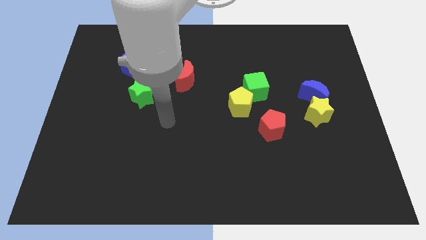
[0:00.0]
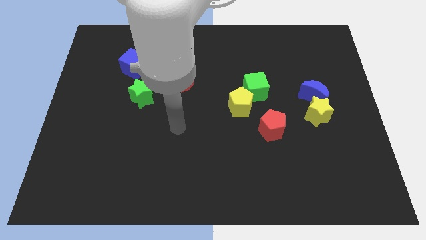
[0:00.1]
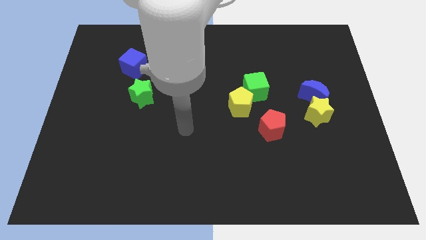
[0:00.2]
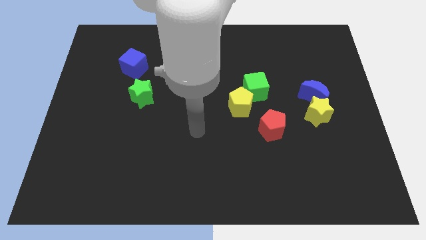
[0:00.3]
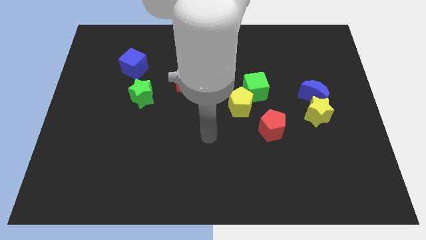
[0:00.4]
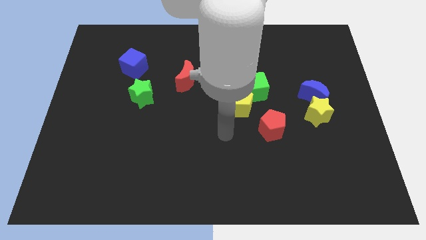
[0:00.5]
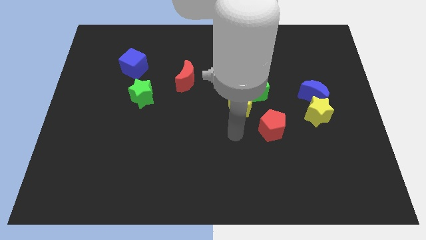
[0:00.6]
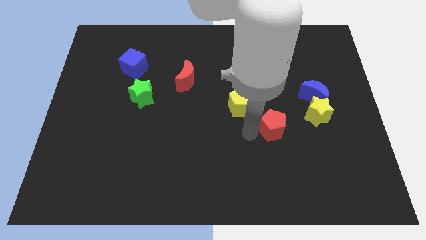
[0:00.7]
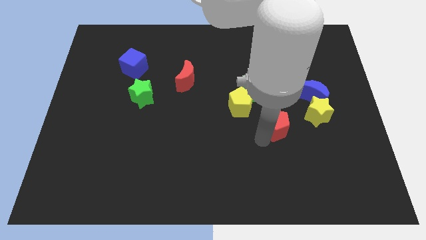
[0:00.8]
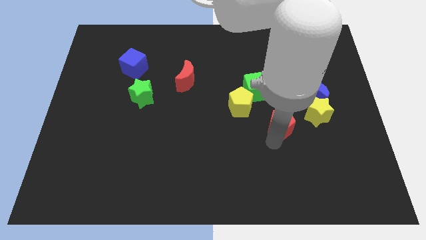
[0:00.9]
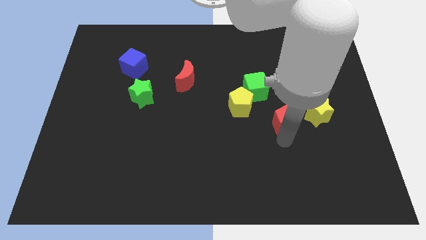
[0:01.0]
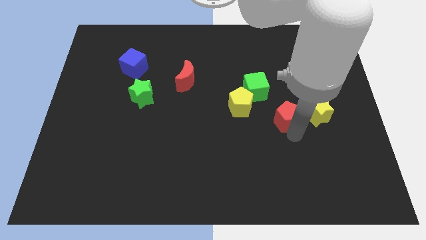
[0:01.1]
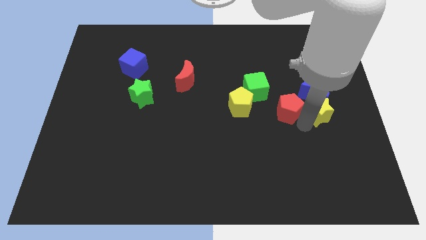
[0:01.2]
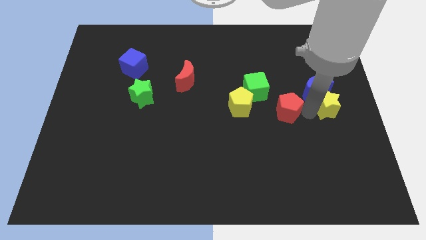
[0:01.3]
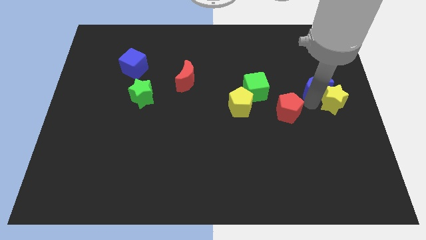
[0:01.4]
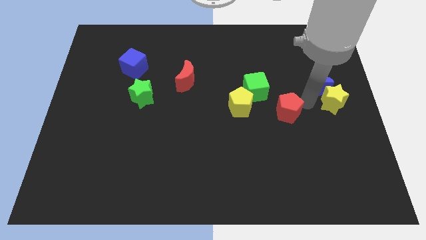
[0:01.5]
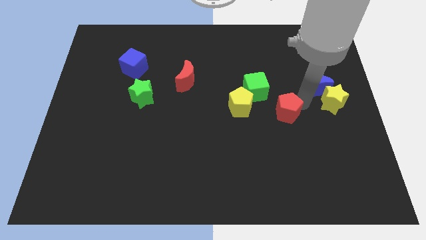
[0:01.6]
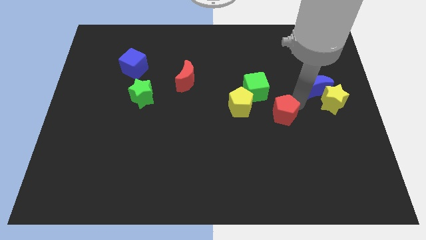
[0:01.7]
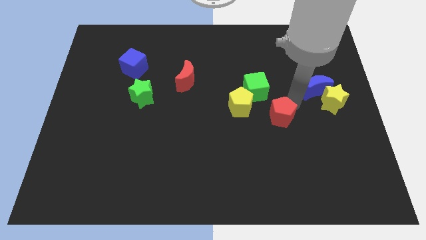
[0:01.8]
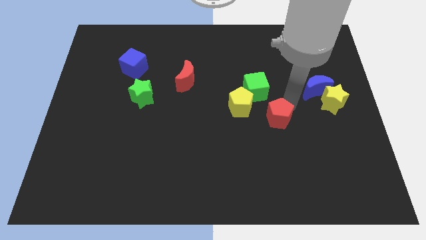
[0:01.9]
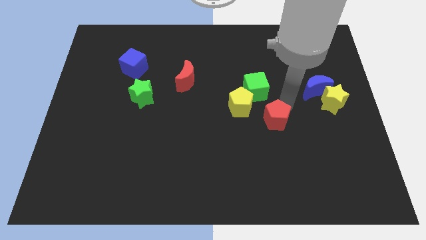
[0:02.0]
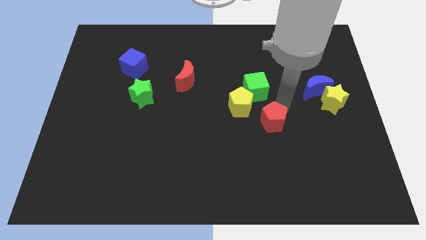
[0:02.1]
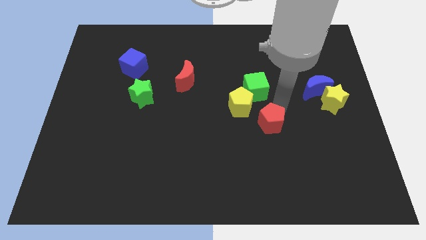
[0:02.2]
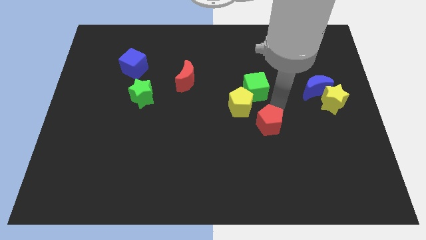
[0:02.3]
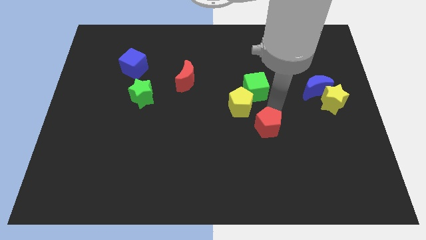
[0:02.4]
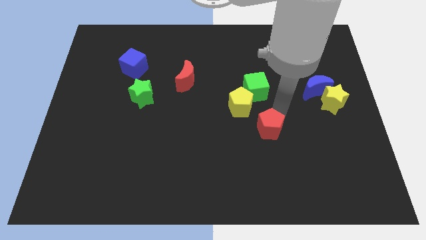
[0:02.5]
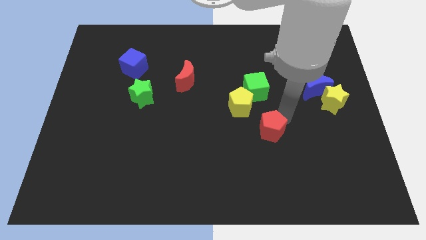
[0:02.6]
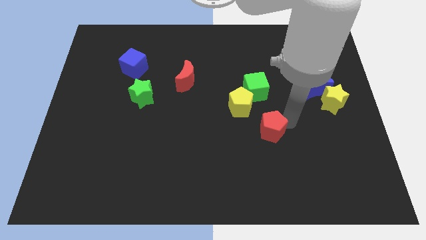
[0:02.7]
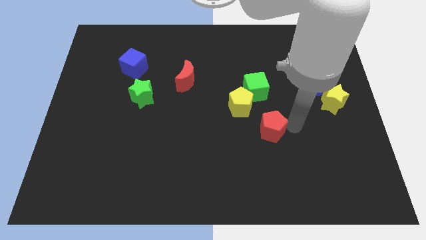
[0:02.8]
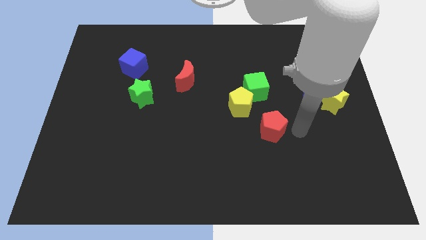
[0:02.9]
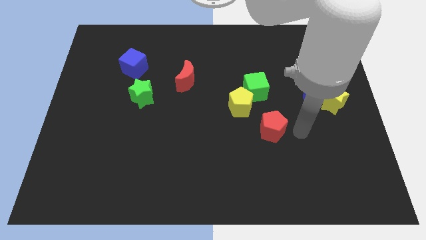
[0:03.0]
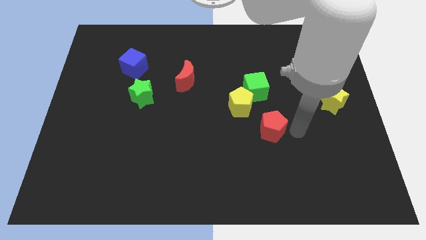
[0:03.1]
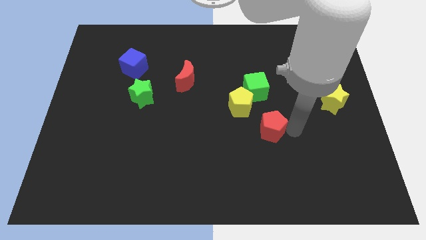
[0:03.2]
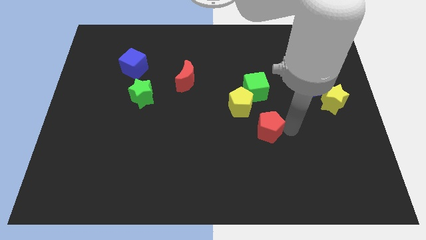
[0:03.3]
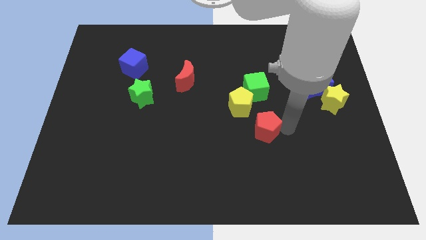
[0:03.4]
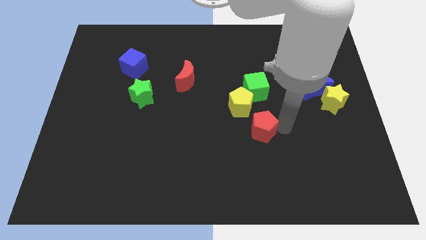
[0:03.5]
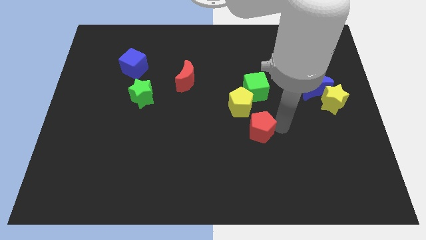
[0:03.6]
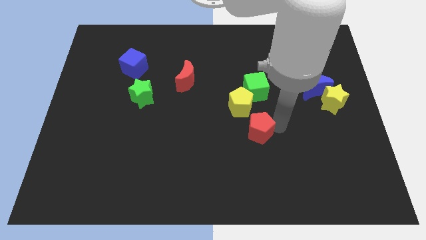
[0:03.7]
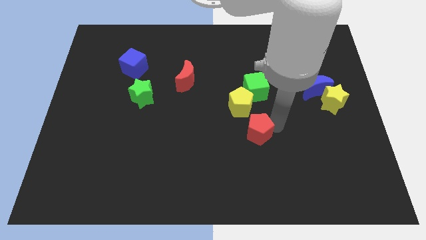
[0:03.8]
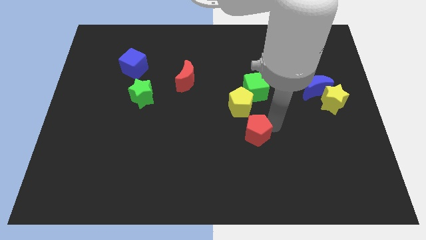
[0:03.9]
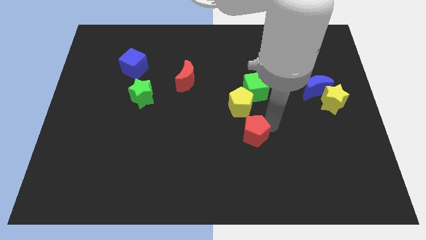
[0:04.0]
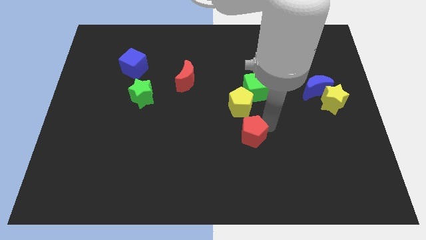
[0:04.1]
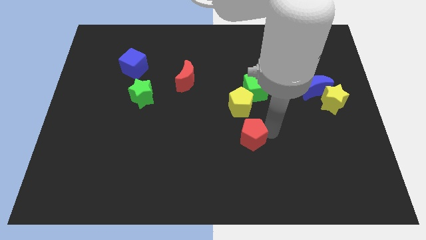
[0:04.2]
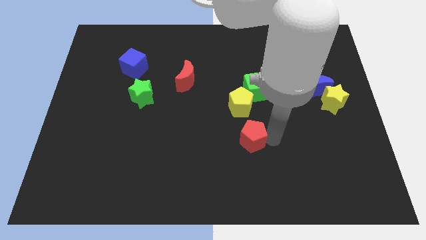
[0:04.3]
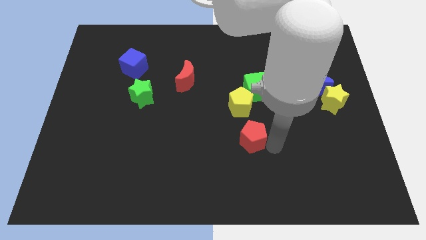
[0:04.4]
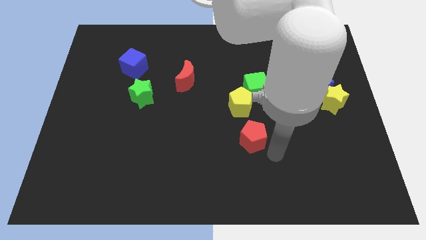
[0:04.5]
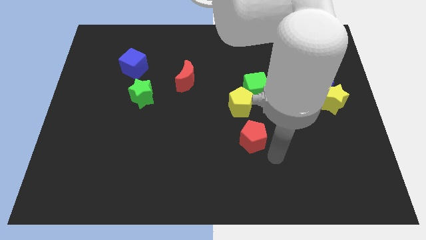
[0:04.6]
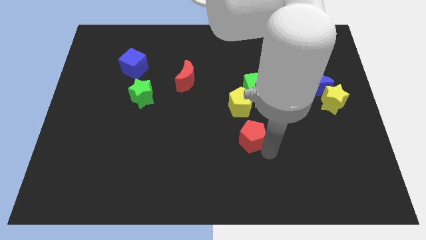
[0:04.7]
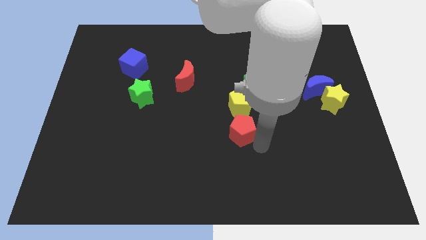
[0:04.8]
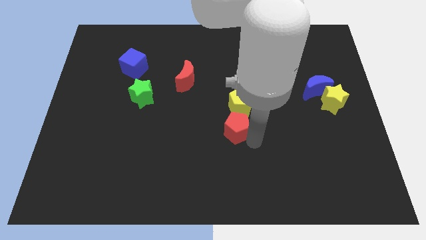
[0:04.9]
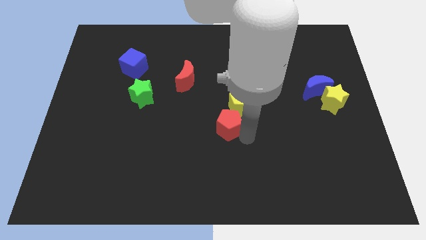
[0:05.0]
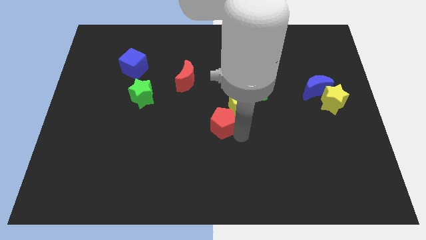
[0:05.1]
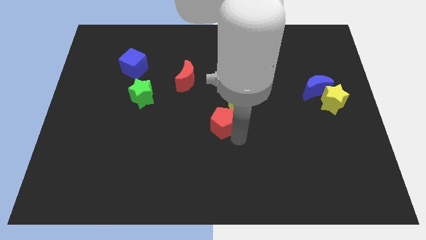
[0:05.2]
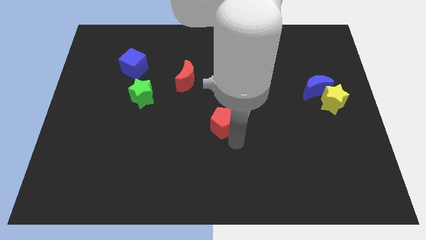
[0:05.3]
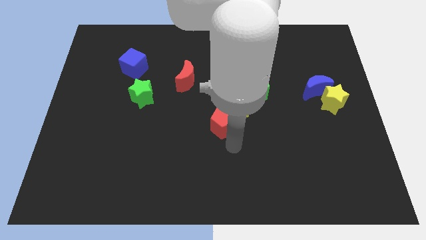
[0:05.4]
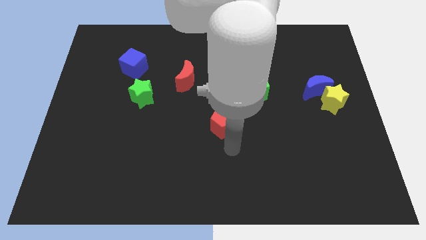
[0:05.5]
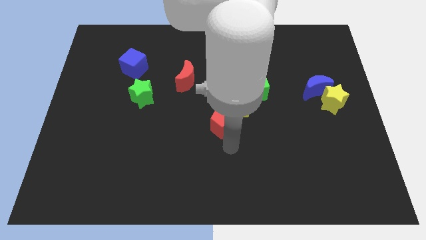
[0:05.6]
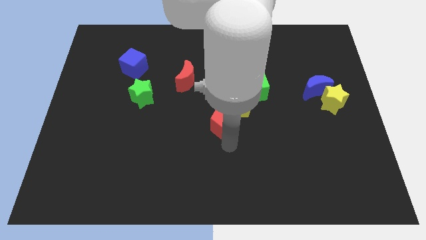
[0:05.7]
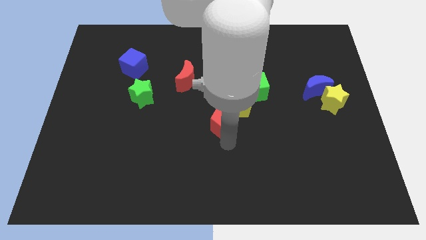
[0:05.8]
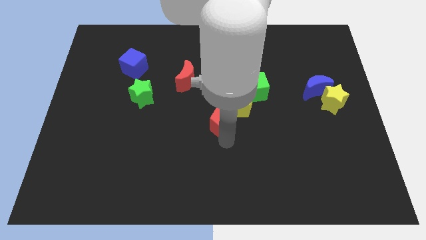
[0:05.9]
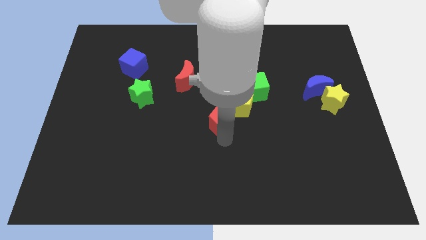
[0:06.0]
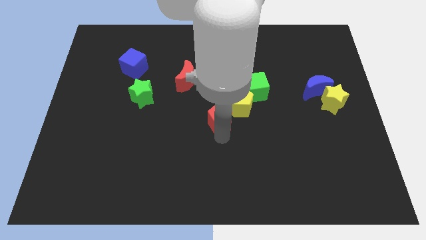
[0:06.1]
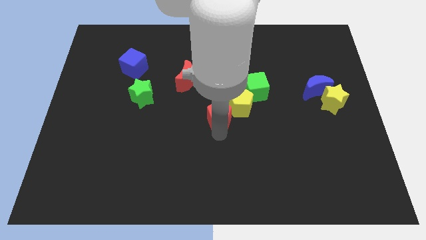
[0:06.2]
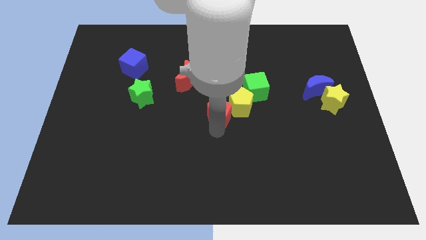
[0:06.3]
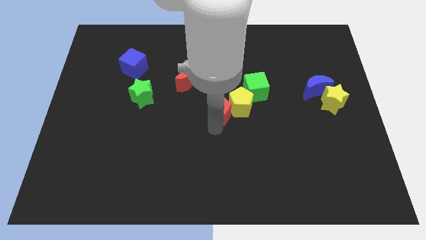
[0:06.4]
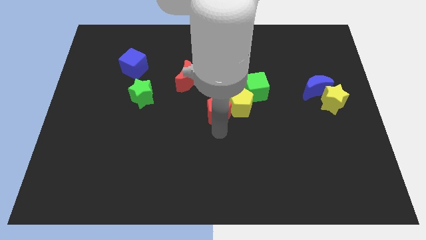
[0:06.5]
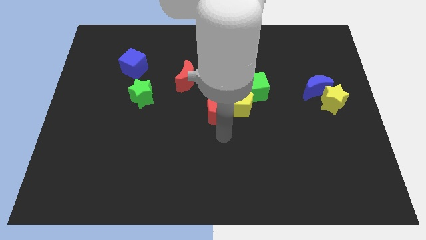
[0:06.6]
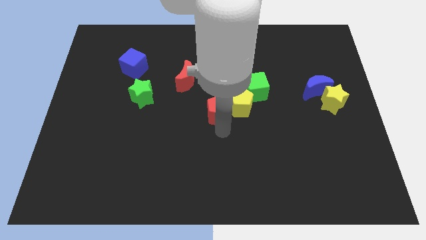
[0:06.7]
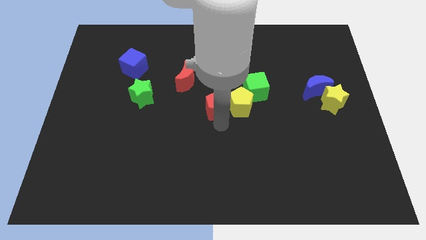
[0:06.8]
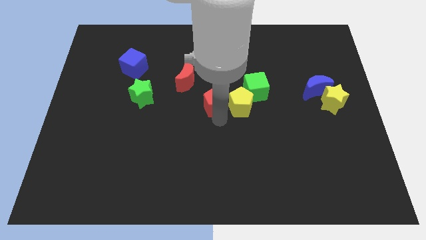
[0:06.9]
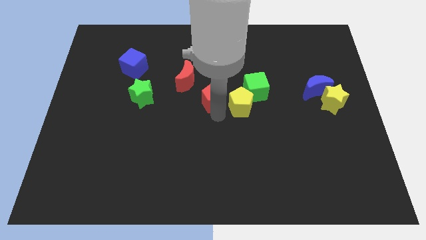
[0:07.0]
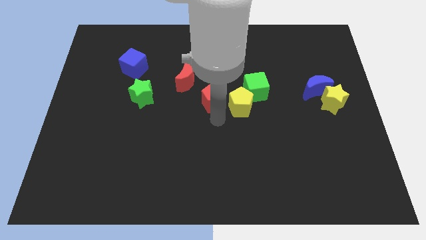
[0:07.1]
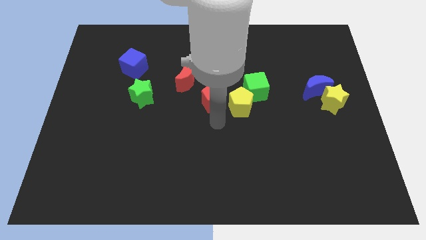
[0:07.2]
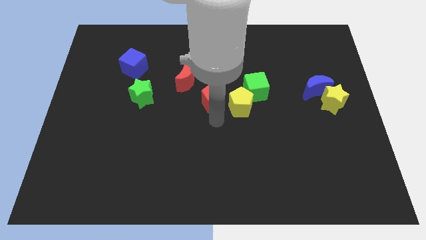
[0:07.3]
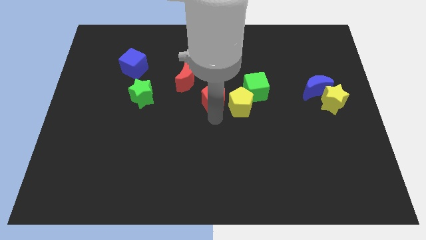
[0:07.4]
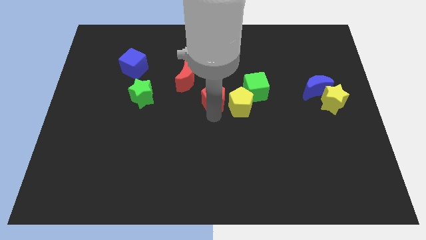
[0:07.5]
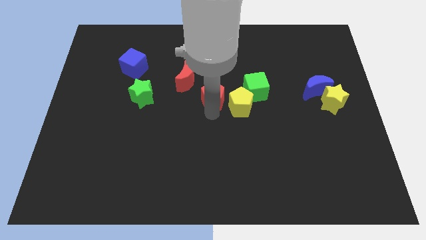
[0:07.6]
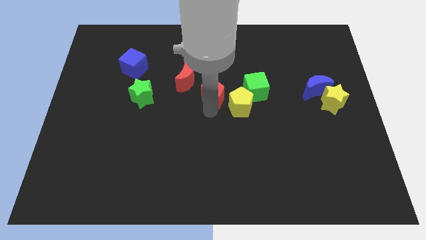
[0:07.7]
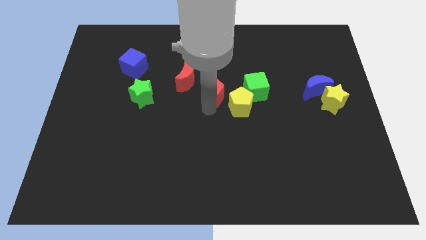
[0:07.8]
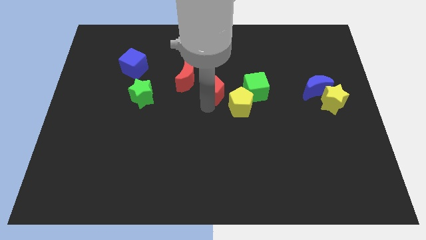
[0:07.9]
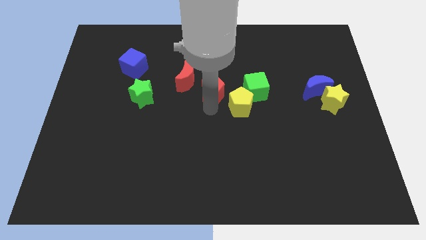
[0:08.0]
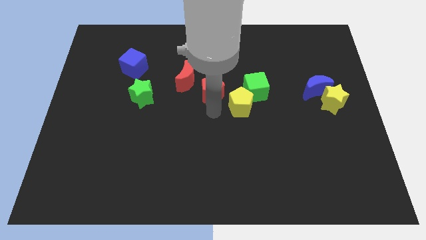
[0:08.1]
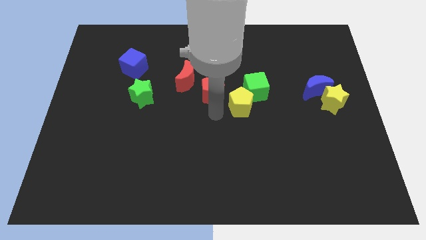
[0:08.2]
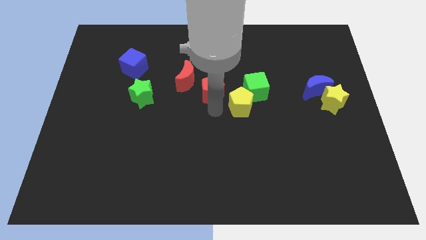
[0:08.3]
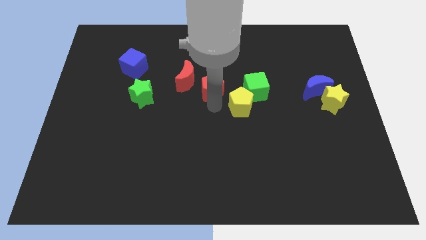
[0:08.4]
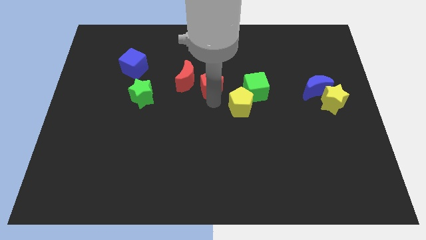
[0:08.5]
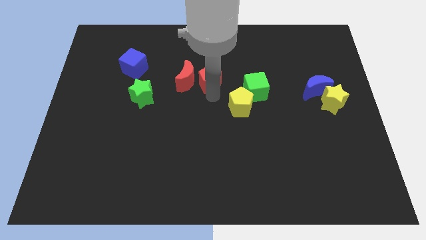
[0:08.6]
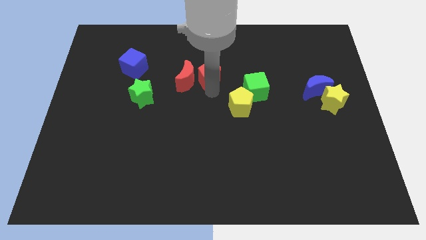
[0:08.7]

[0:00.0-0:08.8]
move the red pentagon up and to the left
